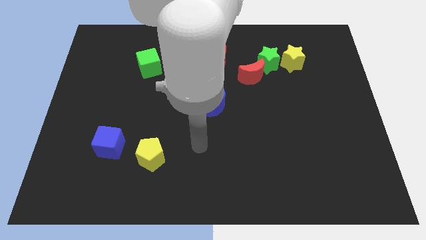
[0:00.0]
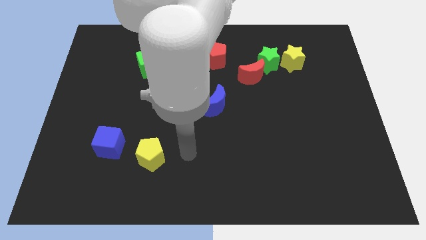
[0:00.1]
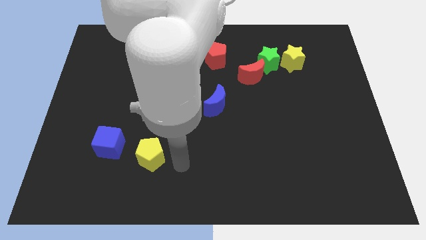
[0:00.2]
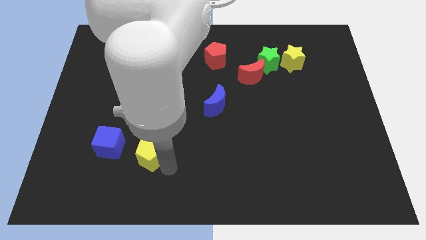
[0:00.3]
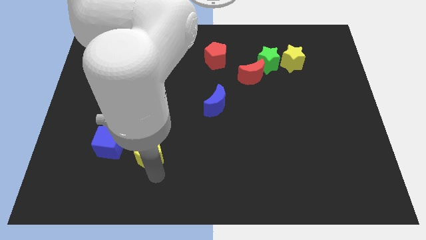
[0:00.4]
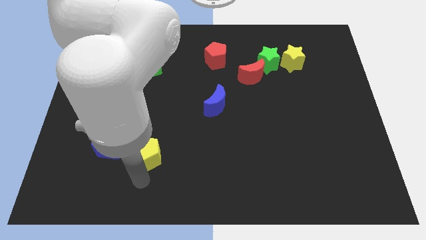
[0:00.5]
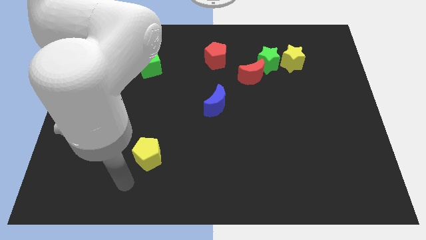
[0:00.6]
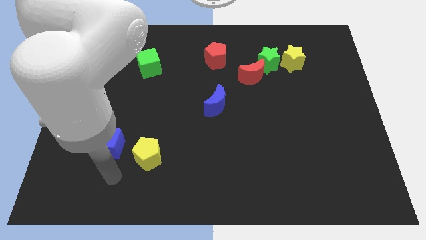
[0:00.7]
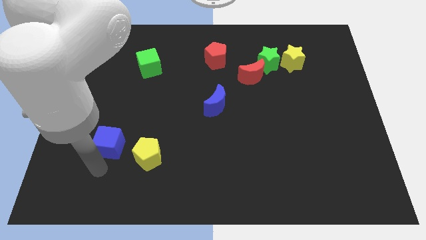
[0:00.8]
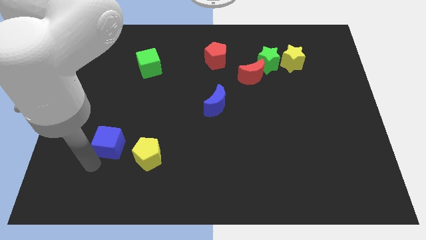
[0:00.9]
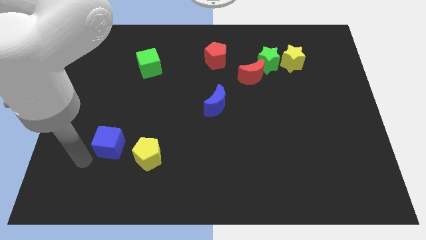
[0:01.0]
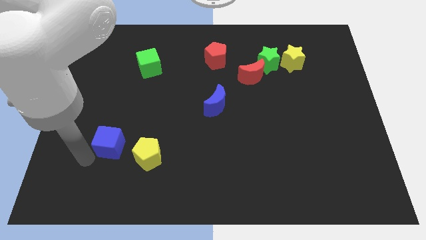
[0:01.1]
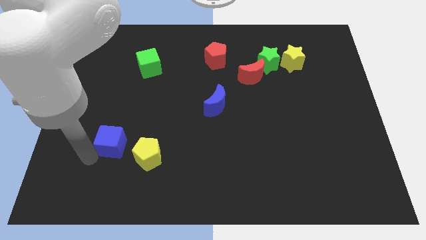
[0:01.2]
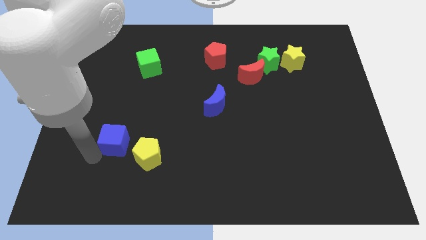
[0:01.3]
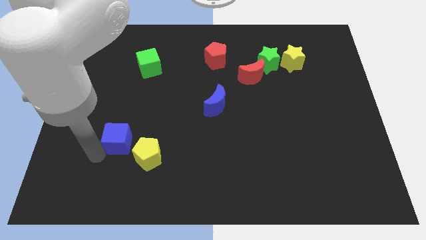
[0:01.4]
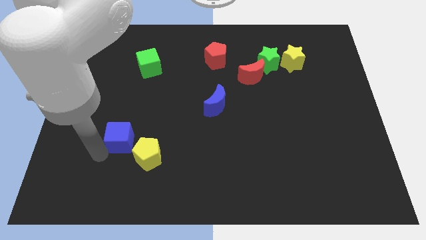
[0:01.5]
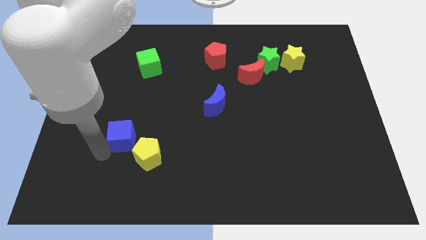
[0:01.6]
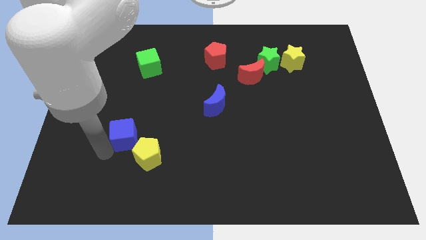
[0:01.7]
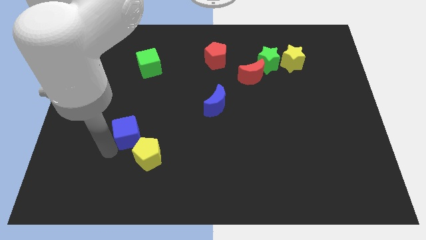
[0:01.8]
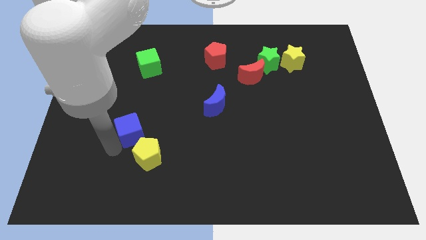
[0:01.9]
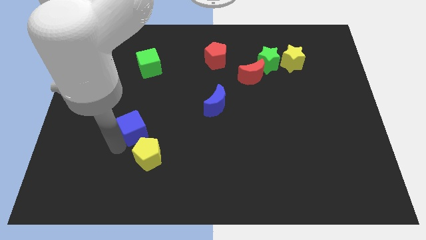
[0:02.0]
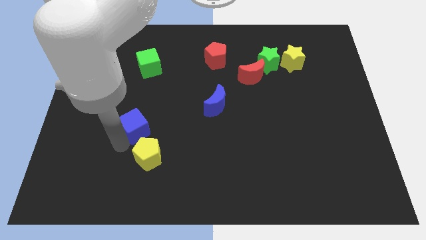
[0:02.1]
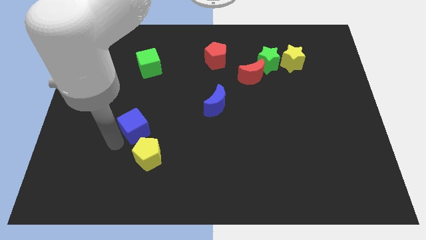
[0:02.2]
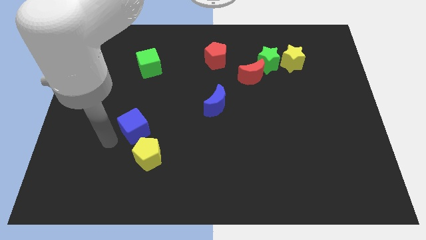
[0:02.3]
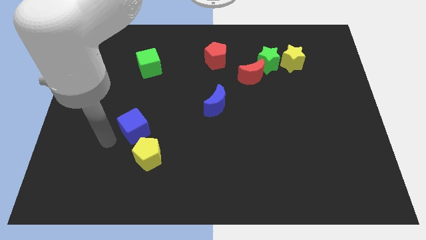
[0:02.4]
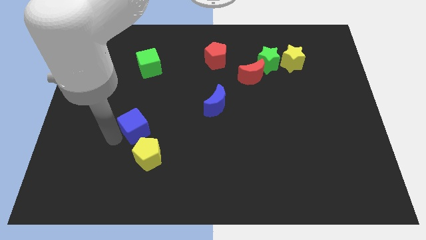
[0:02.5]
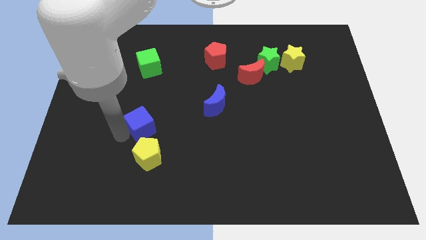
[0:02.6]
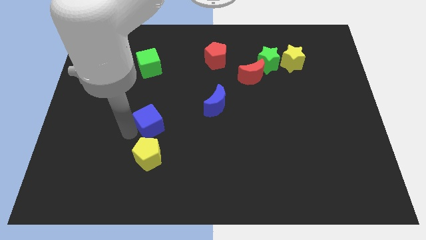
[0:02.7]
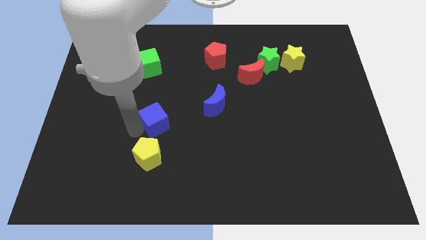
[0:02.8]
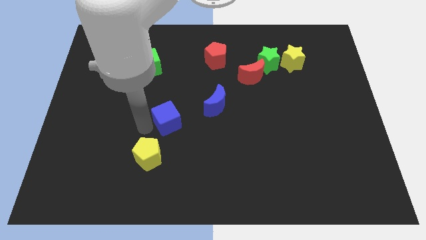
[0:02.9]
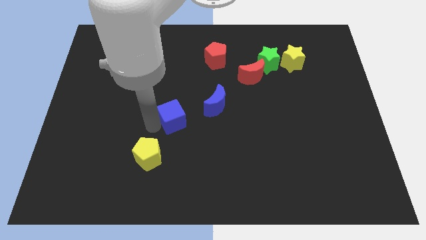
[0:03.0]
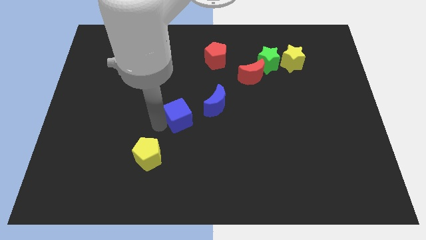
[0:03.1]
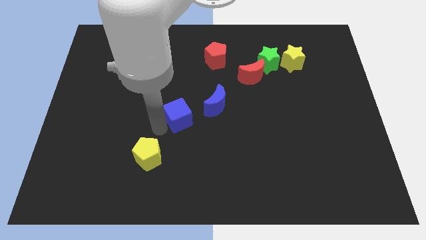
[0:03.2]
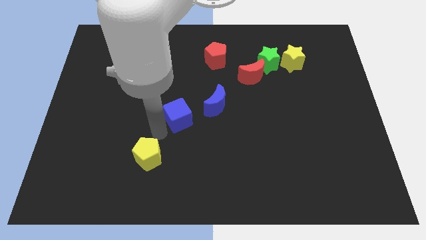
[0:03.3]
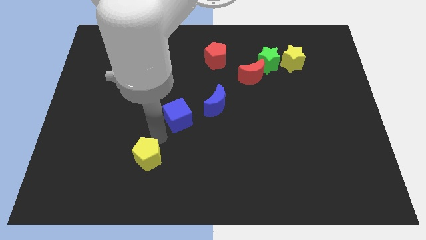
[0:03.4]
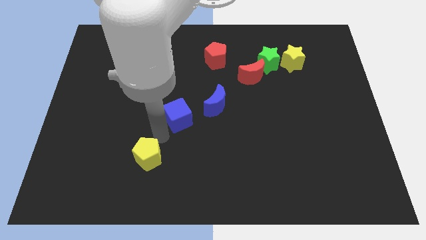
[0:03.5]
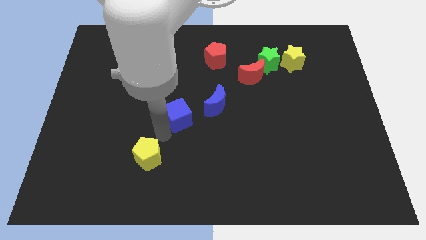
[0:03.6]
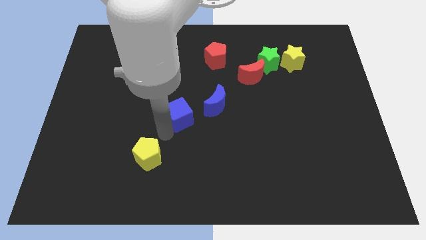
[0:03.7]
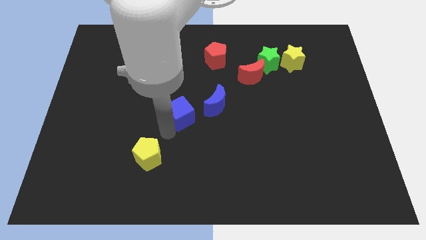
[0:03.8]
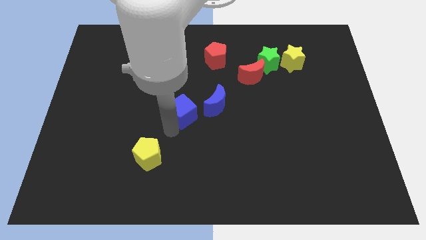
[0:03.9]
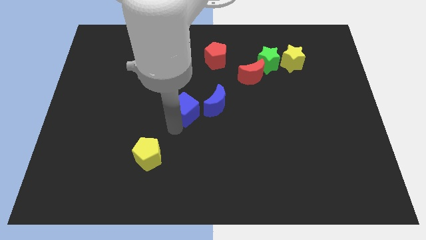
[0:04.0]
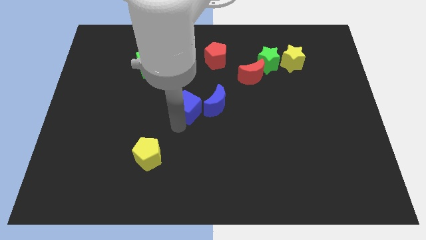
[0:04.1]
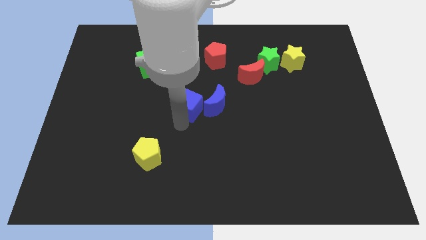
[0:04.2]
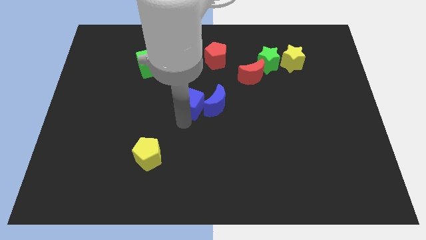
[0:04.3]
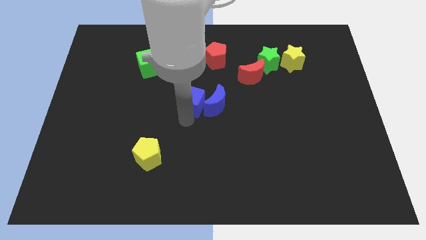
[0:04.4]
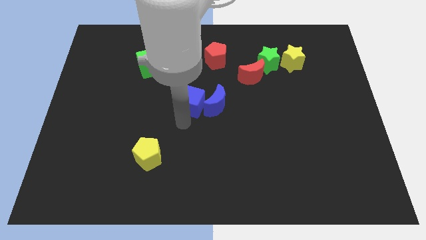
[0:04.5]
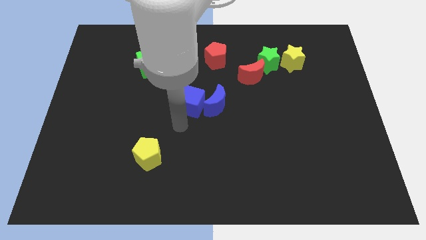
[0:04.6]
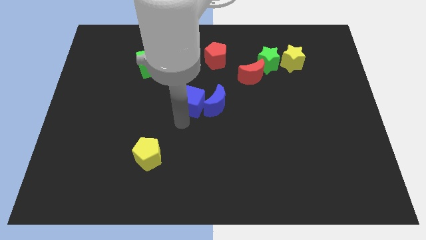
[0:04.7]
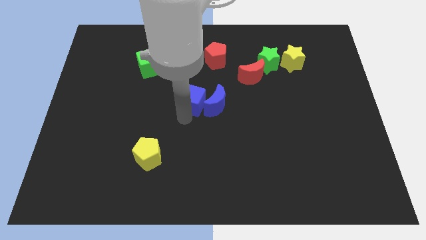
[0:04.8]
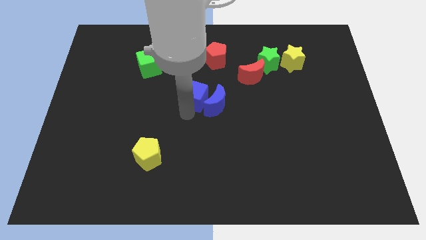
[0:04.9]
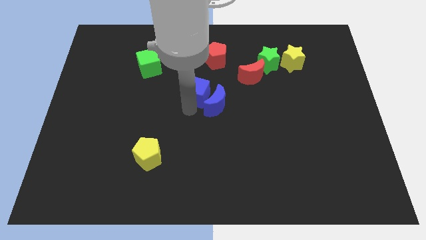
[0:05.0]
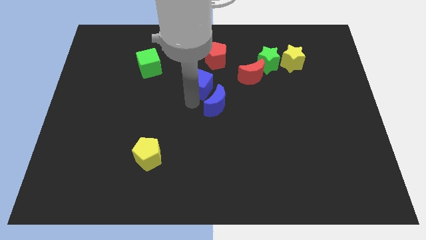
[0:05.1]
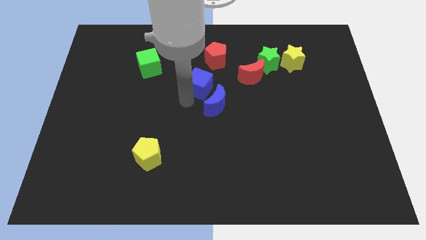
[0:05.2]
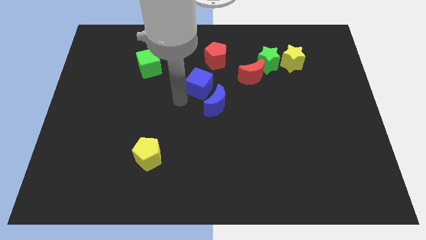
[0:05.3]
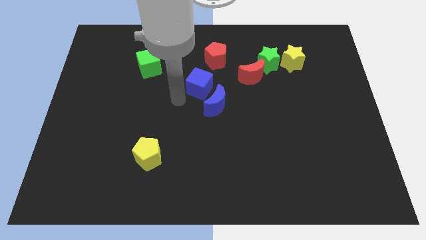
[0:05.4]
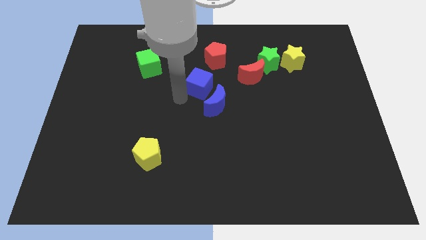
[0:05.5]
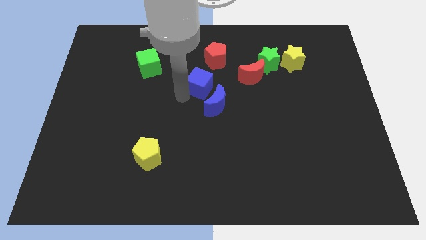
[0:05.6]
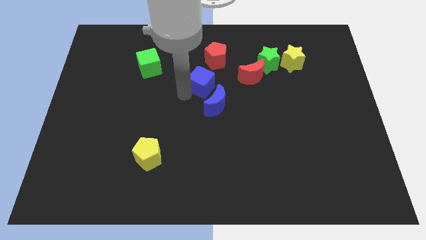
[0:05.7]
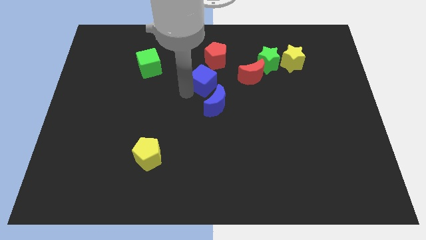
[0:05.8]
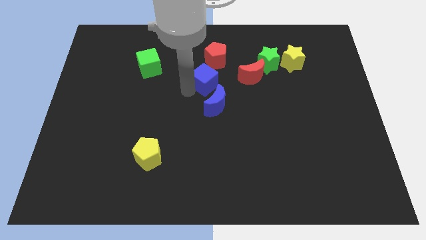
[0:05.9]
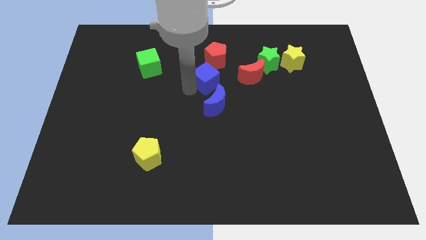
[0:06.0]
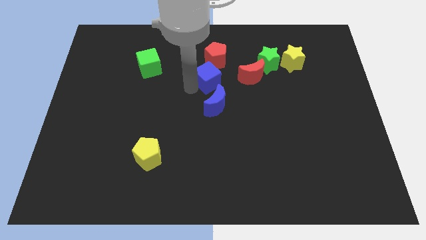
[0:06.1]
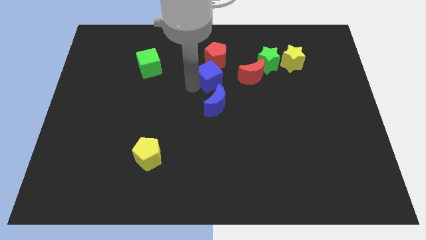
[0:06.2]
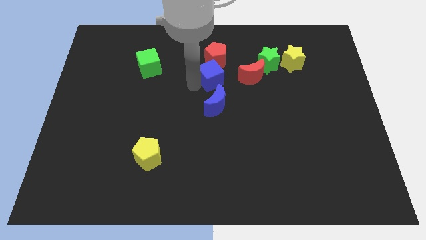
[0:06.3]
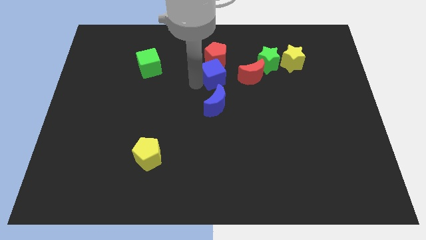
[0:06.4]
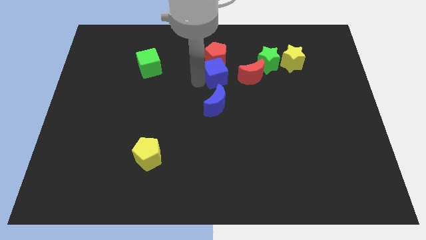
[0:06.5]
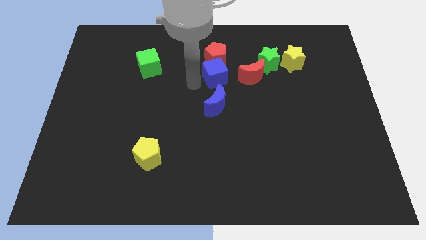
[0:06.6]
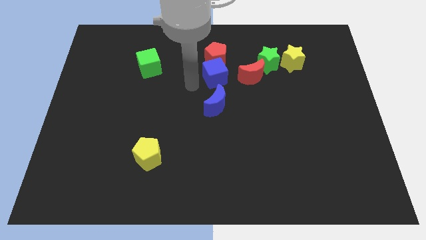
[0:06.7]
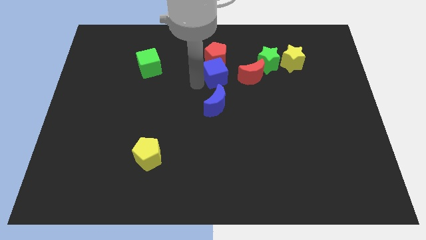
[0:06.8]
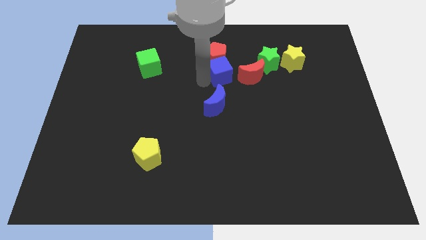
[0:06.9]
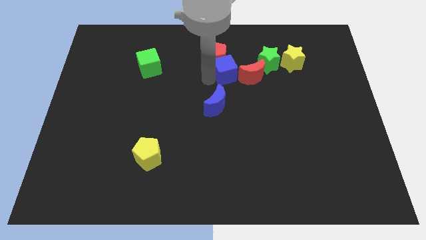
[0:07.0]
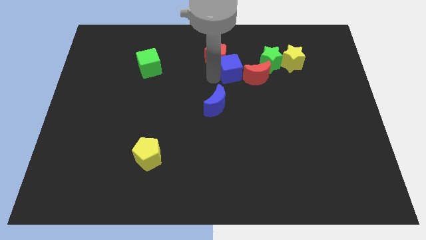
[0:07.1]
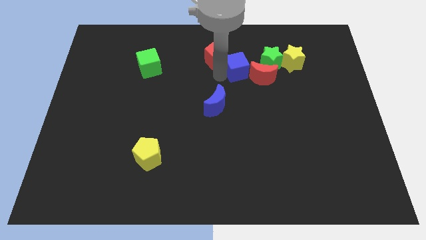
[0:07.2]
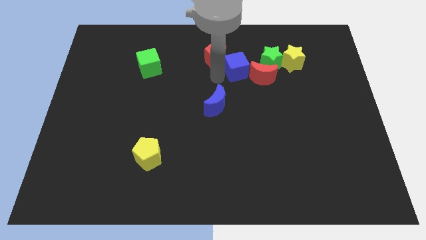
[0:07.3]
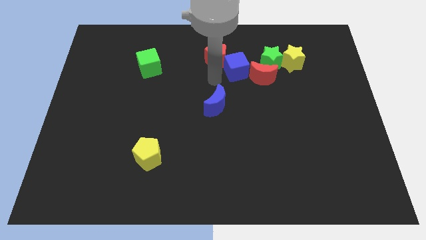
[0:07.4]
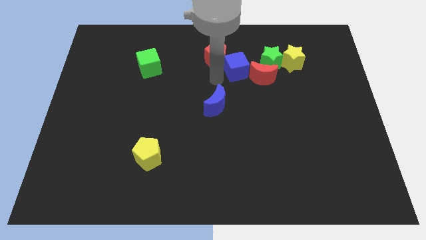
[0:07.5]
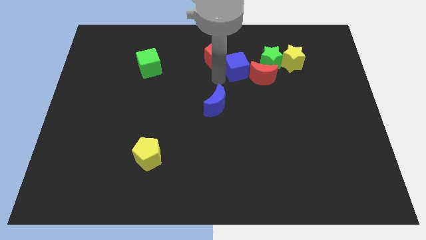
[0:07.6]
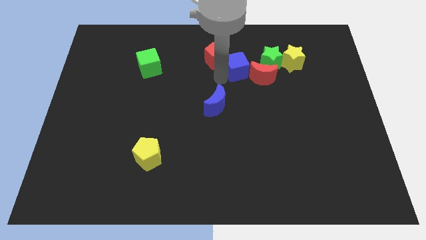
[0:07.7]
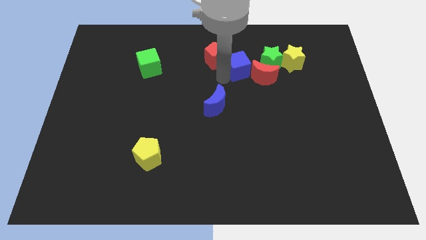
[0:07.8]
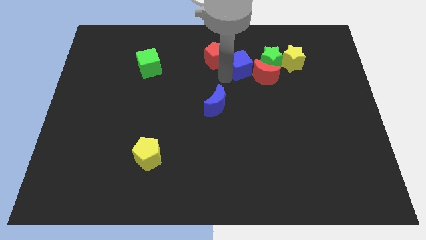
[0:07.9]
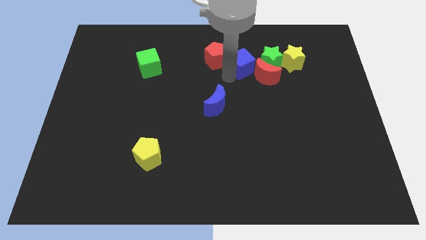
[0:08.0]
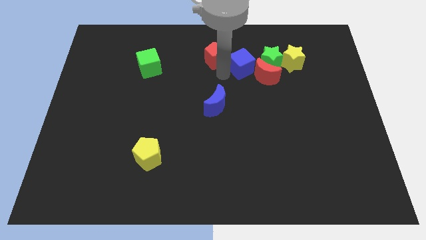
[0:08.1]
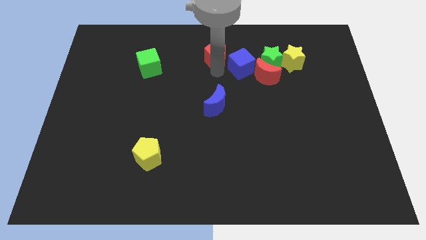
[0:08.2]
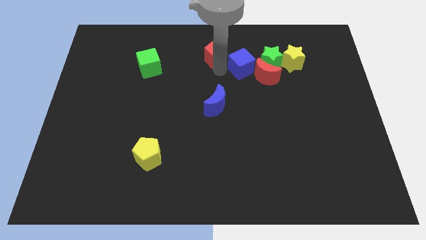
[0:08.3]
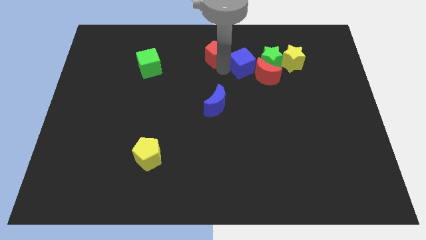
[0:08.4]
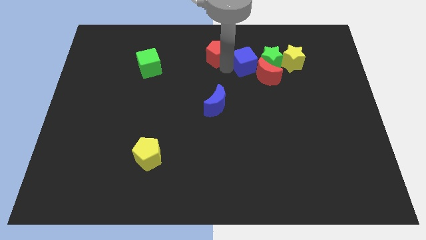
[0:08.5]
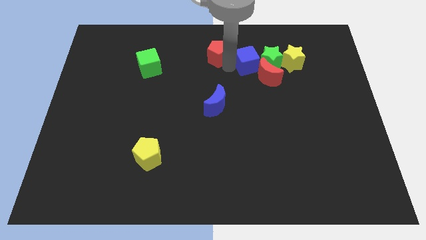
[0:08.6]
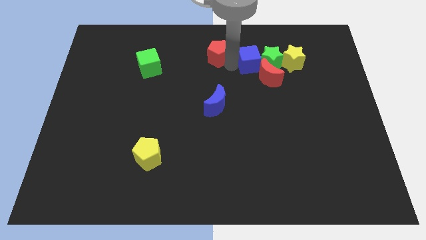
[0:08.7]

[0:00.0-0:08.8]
put the blue cube close to the green star
